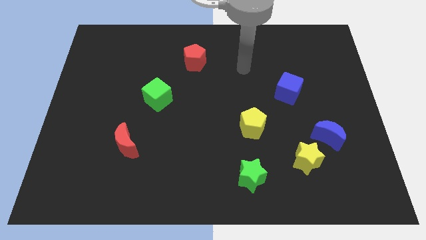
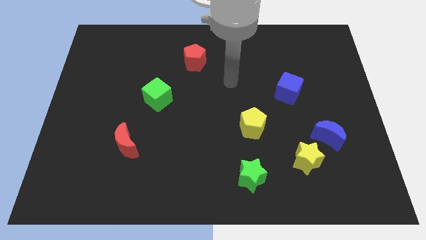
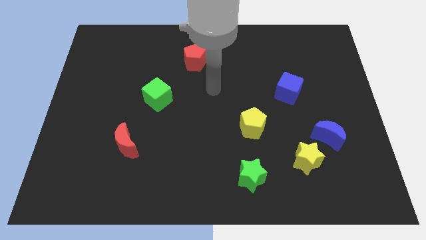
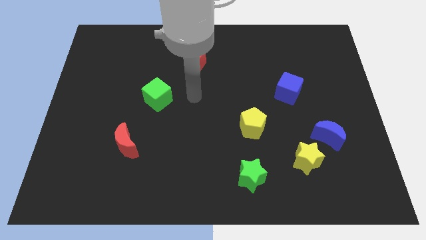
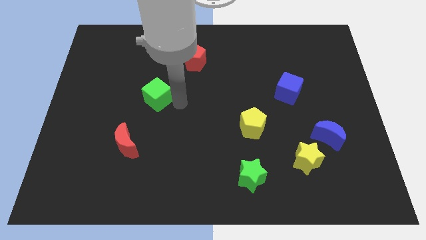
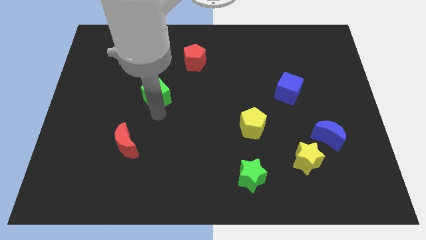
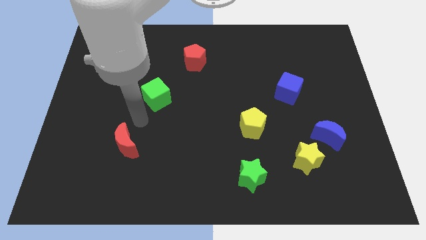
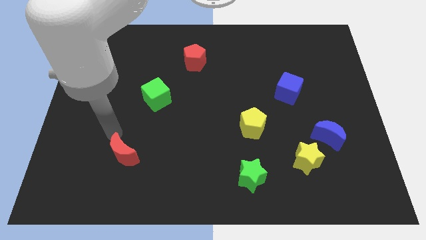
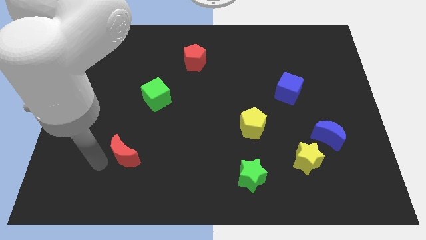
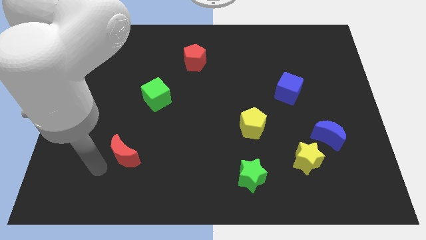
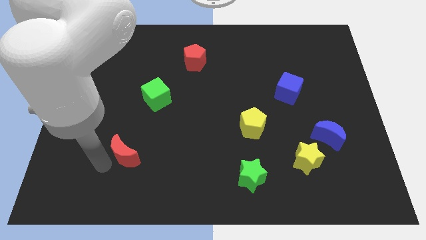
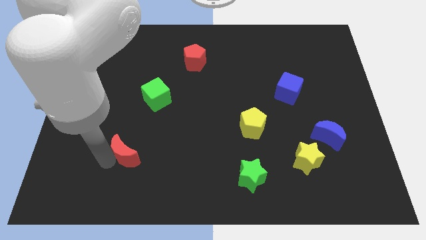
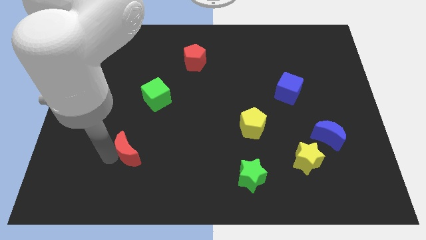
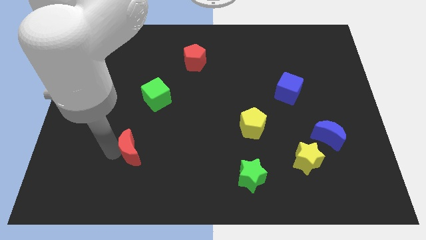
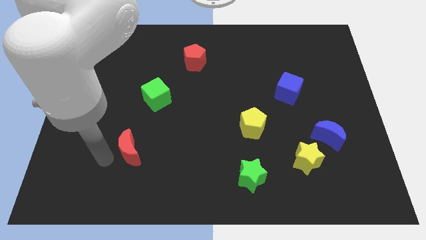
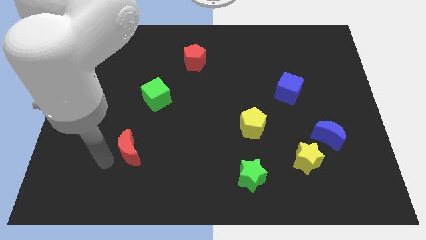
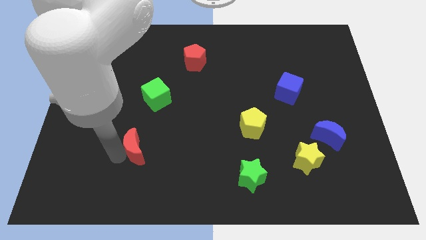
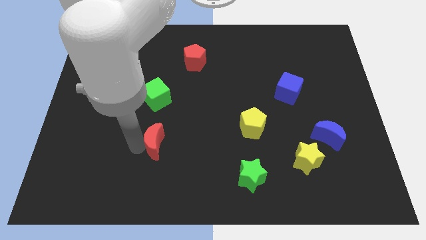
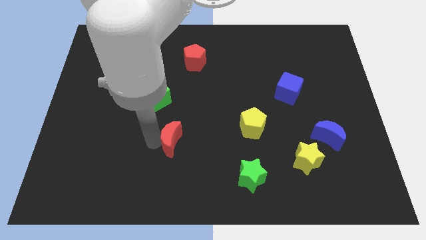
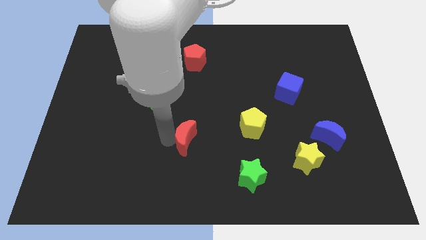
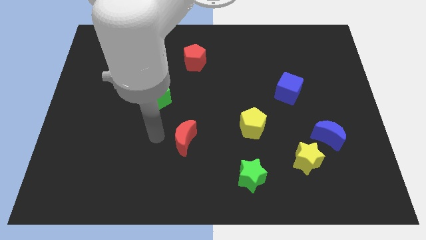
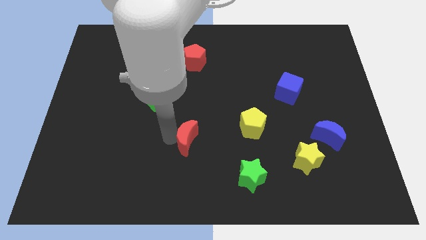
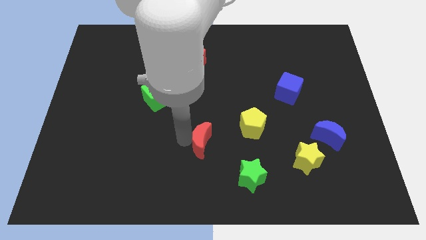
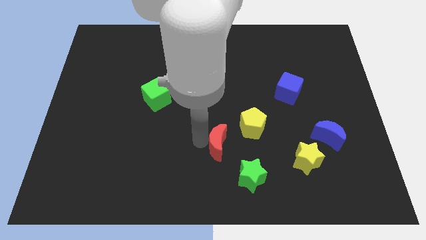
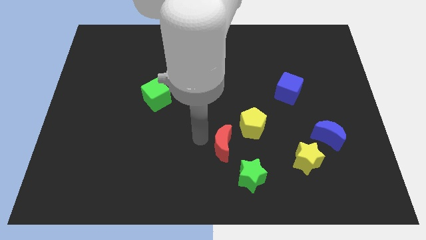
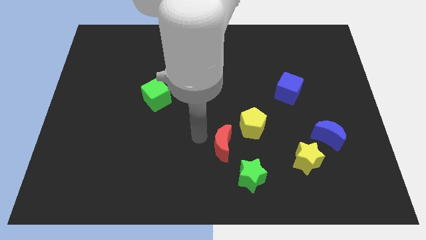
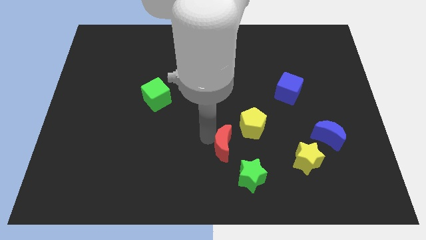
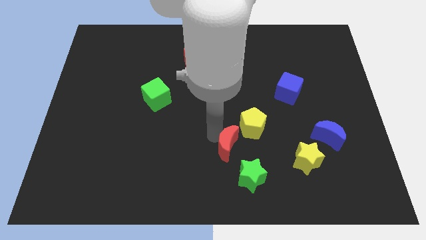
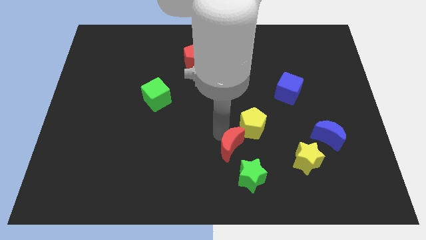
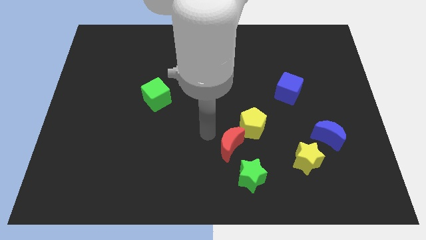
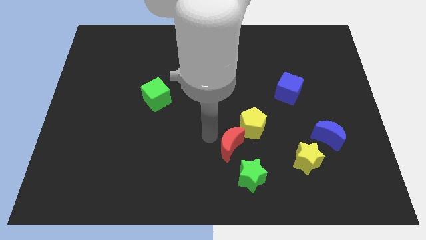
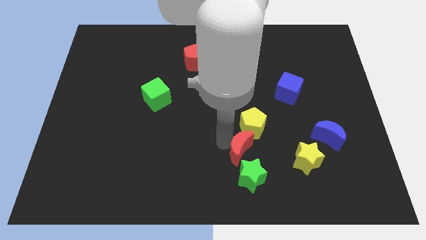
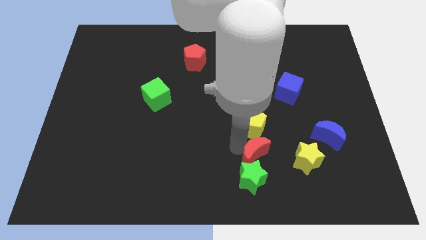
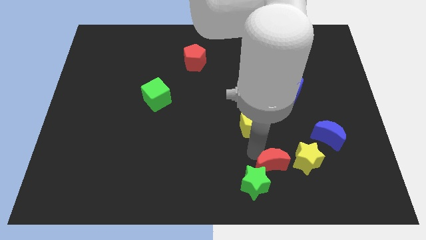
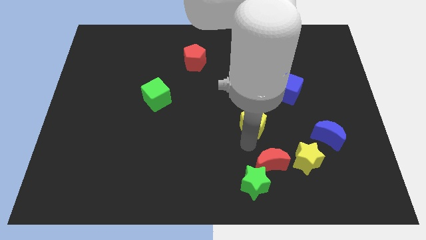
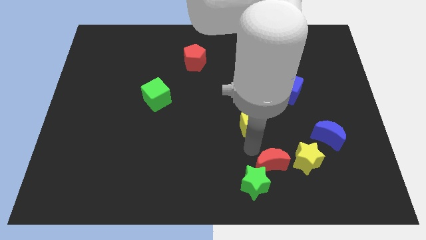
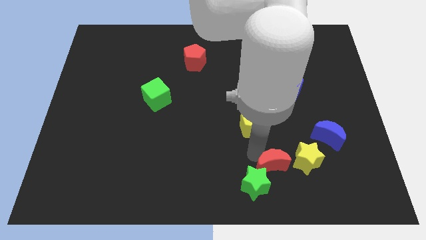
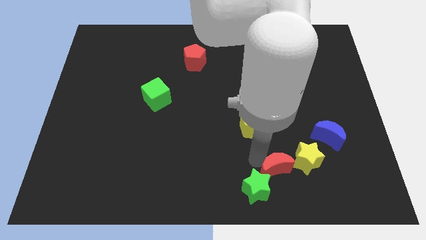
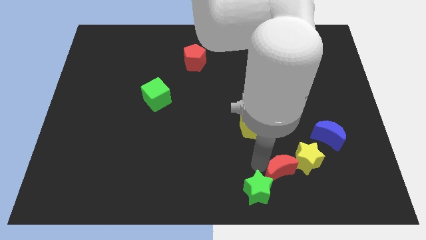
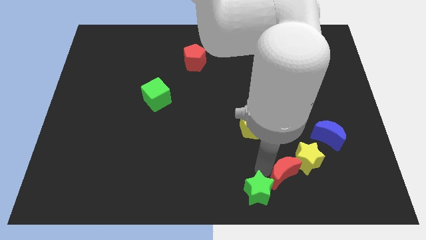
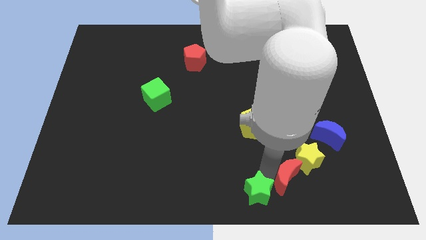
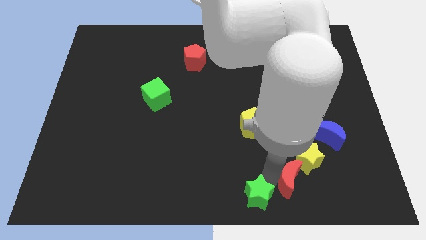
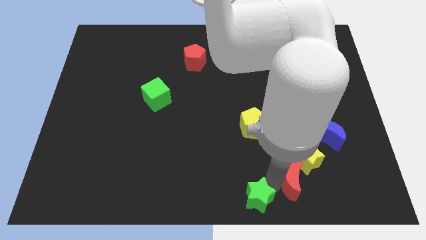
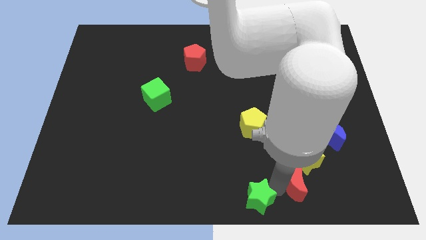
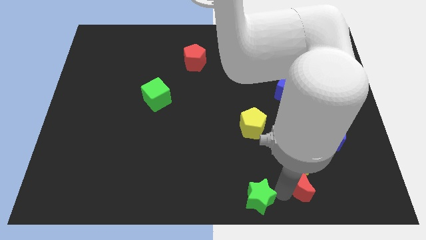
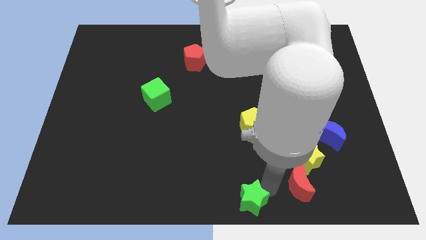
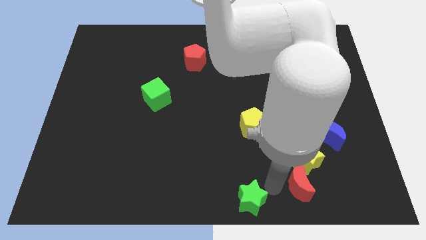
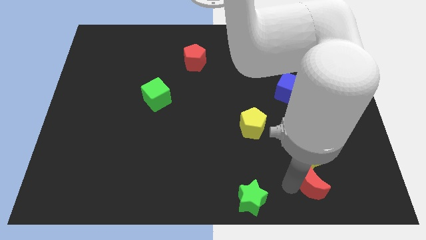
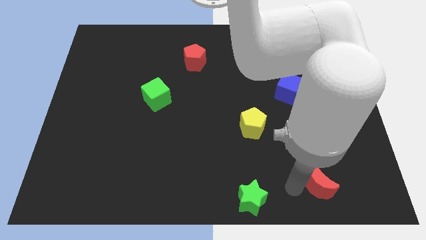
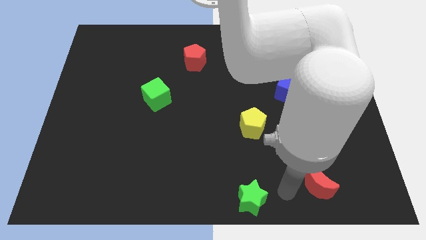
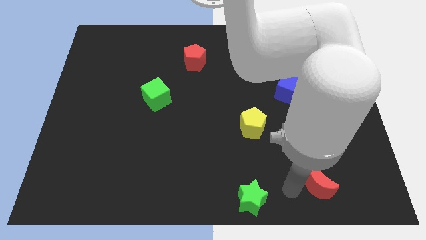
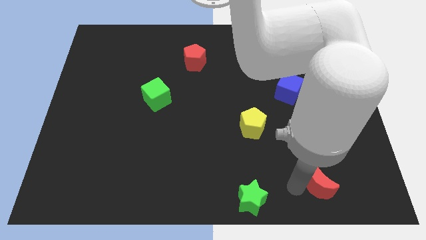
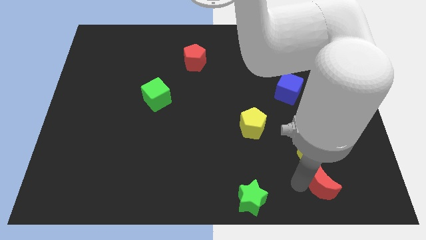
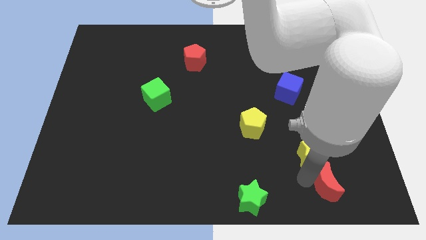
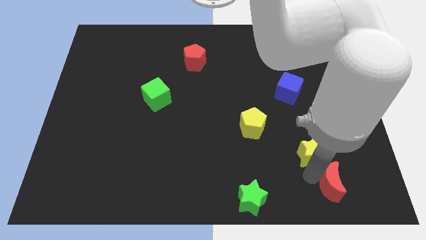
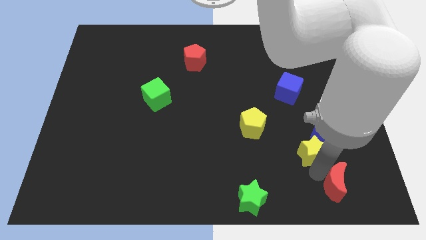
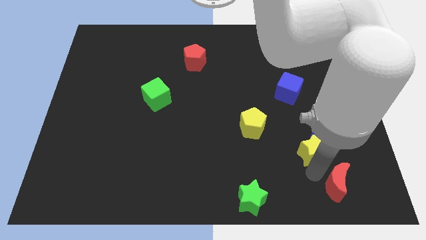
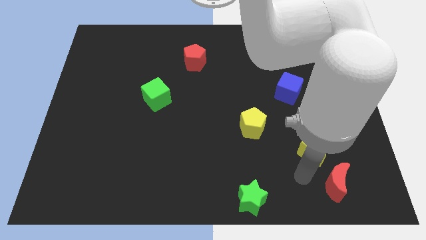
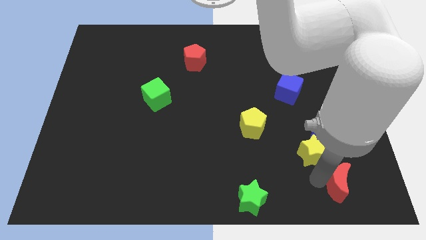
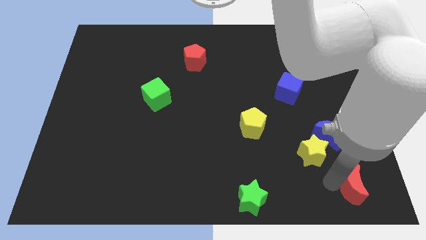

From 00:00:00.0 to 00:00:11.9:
push the red moon to the bottom right corner

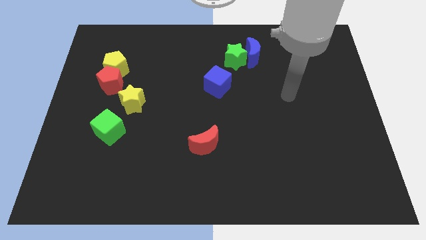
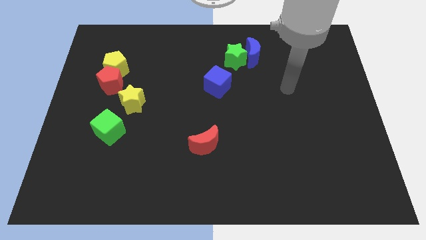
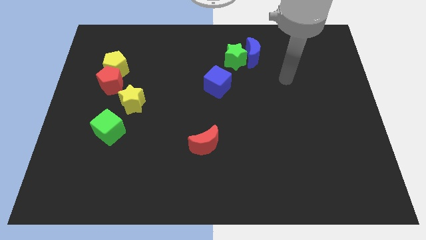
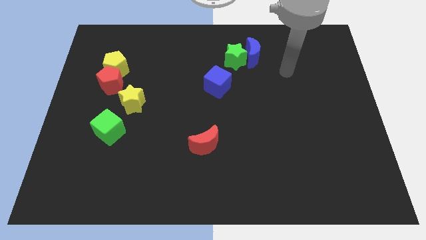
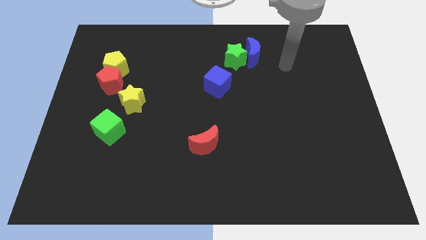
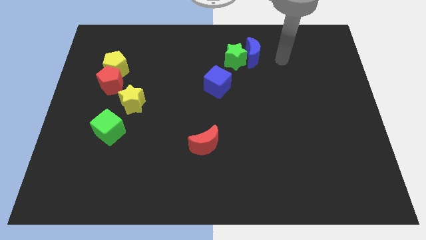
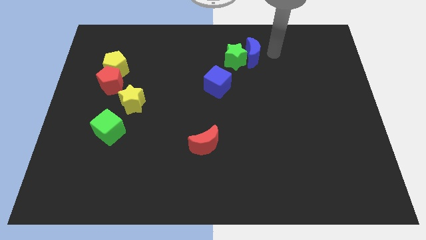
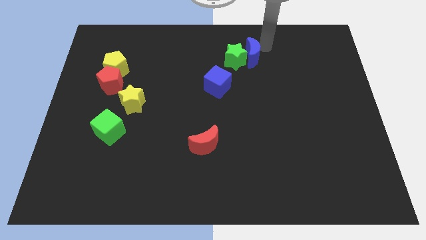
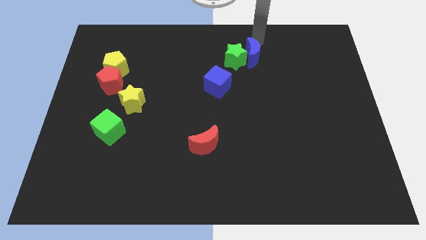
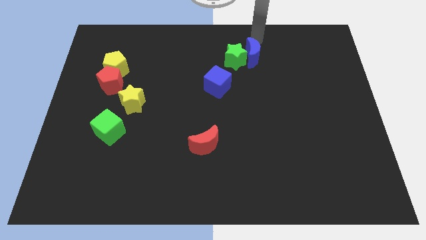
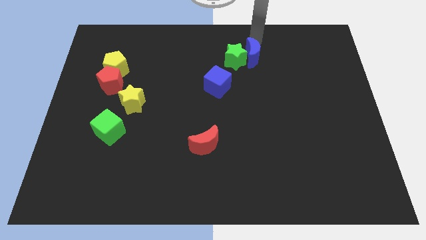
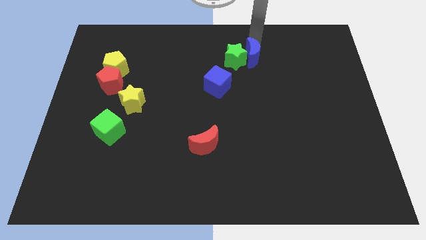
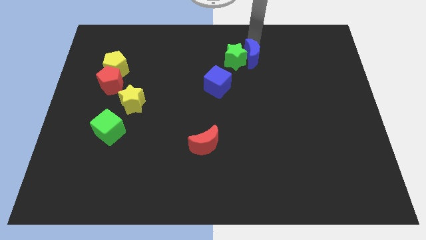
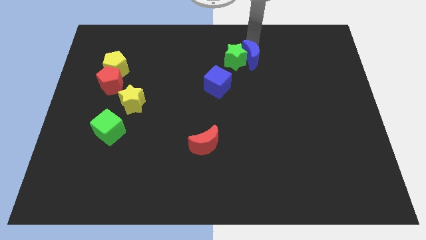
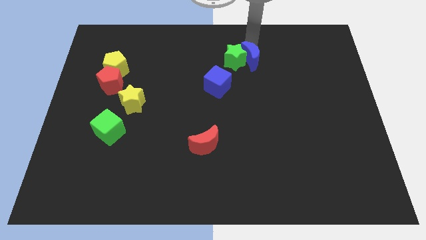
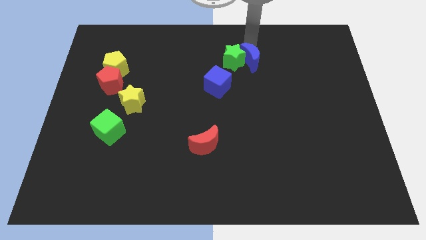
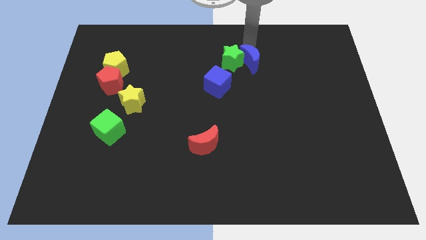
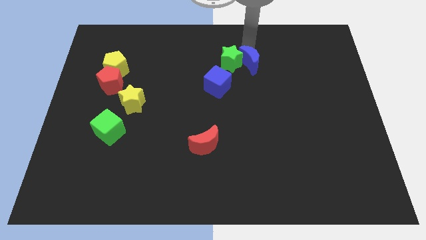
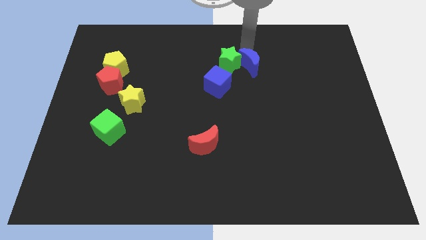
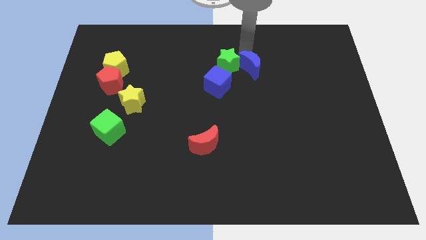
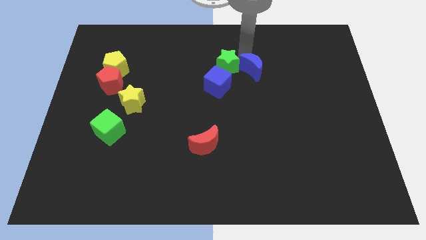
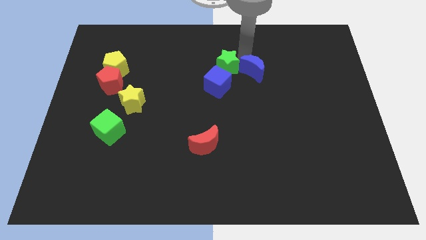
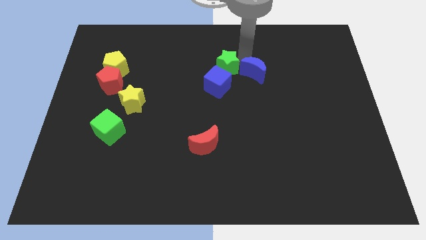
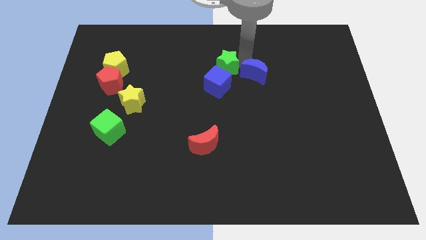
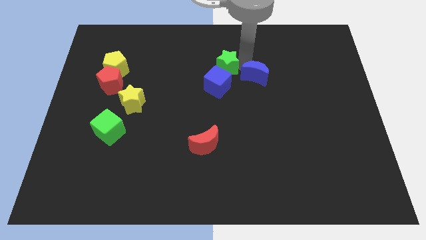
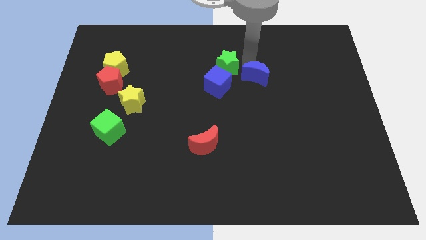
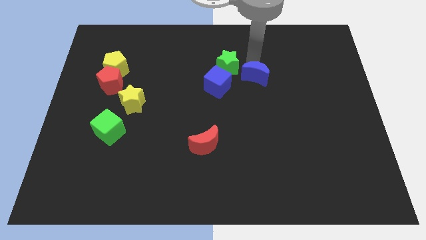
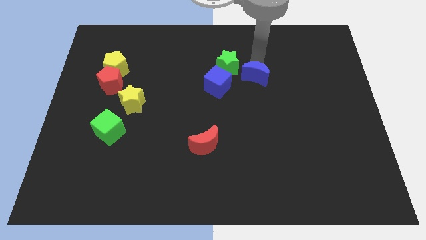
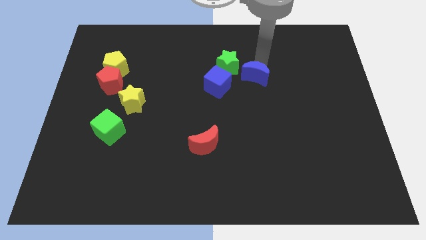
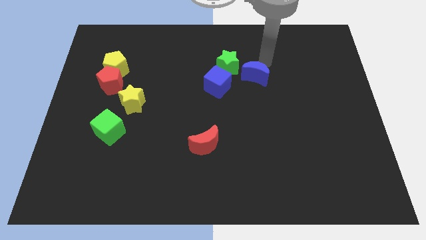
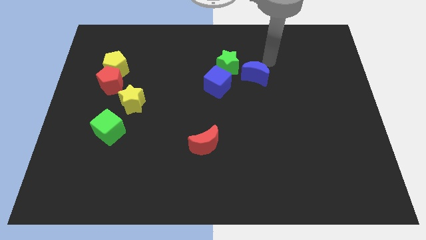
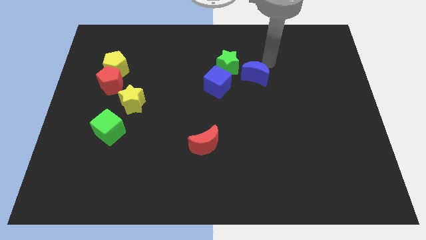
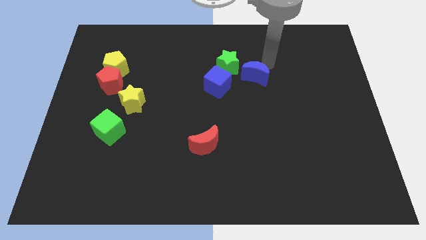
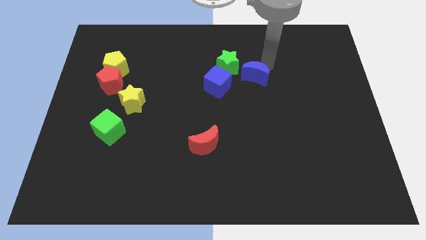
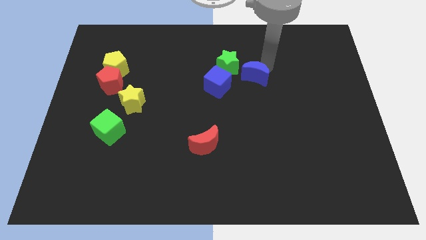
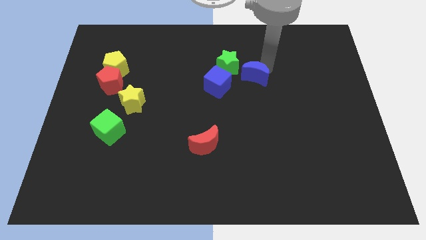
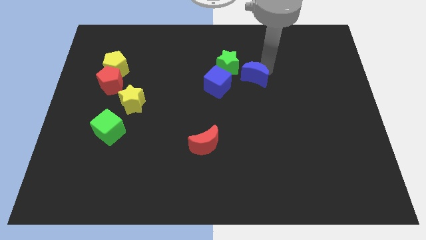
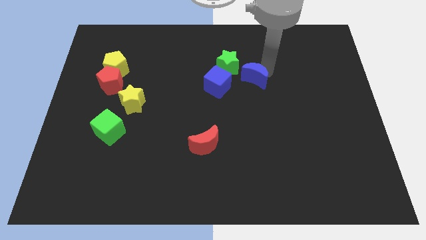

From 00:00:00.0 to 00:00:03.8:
push the blue moon to the middle
